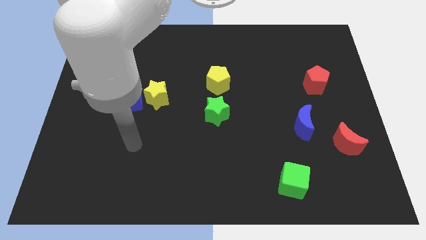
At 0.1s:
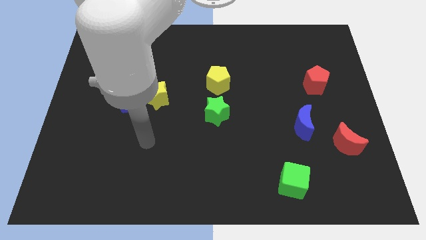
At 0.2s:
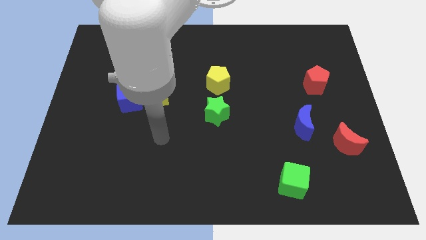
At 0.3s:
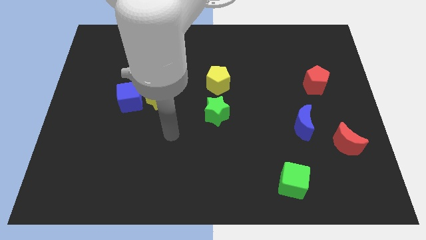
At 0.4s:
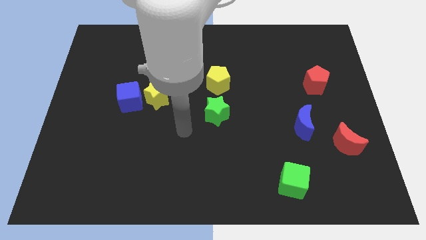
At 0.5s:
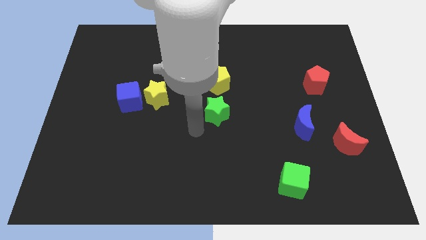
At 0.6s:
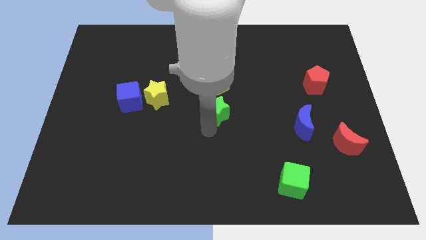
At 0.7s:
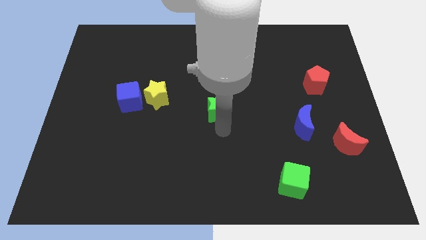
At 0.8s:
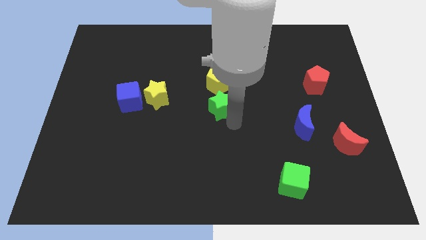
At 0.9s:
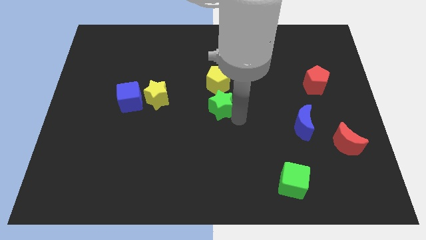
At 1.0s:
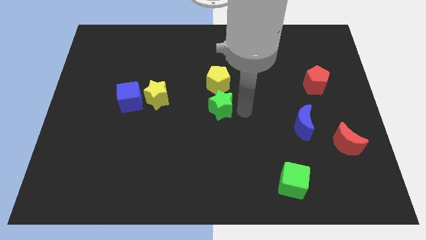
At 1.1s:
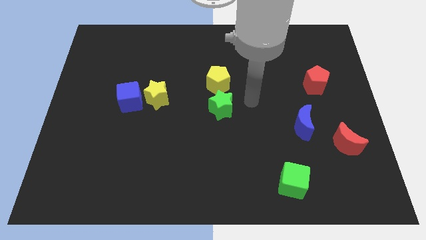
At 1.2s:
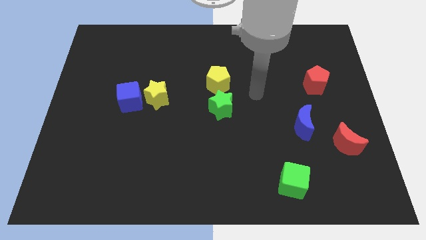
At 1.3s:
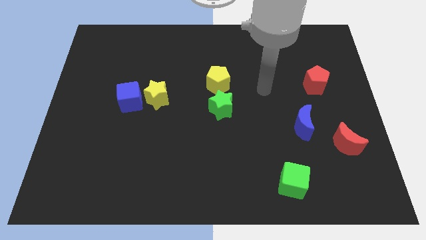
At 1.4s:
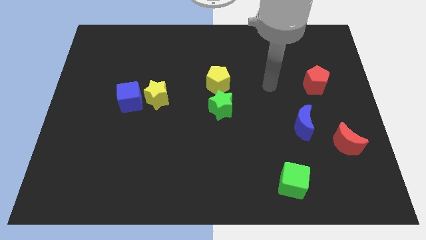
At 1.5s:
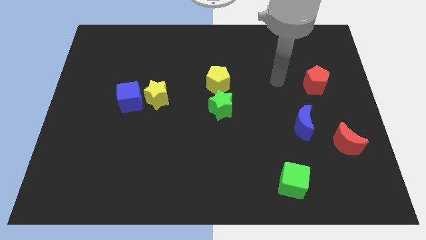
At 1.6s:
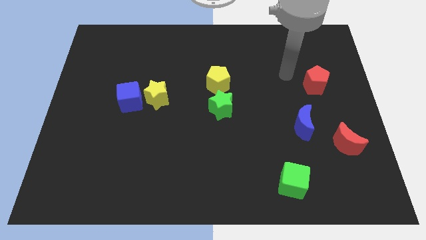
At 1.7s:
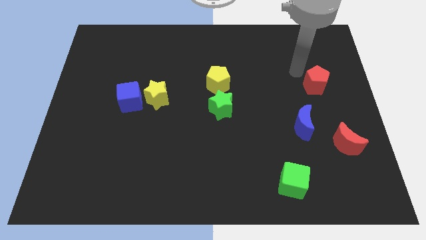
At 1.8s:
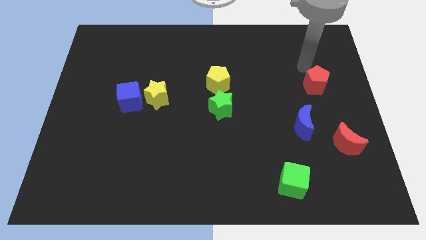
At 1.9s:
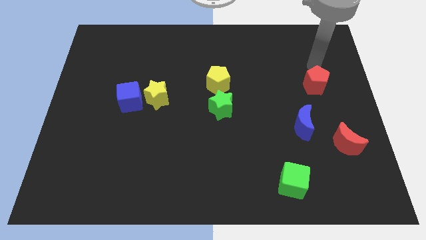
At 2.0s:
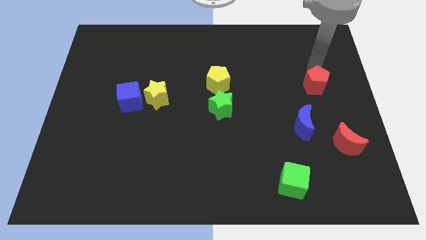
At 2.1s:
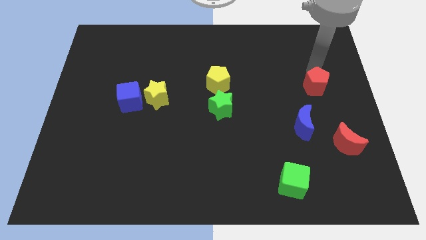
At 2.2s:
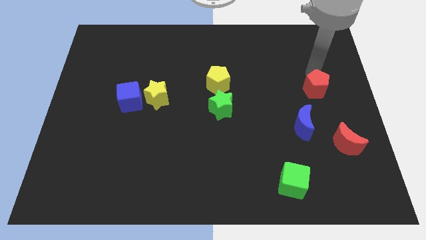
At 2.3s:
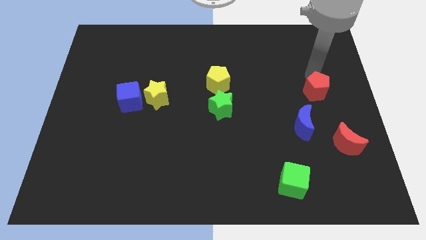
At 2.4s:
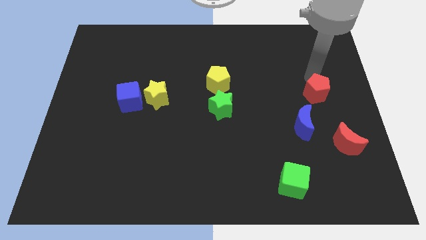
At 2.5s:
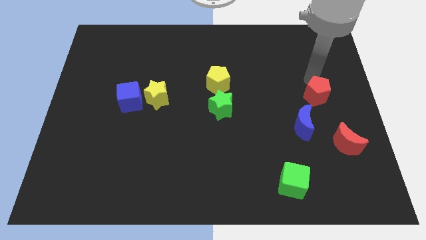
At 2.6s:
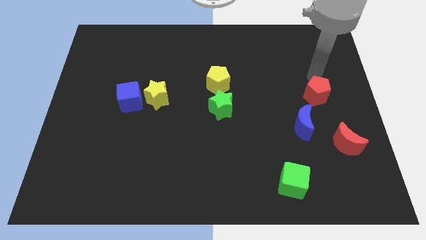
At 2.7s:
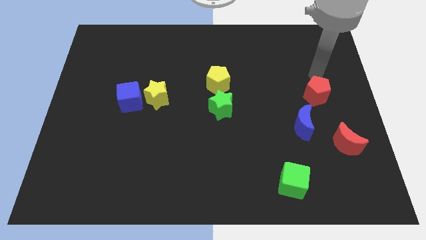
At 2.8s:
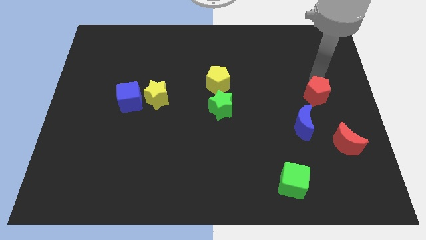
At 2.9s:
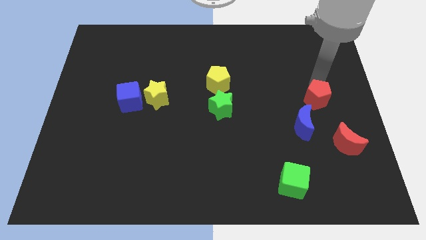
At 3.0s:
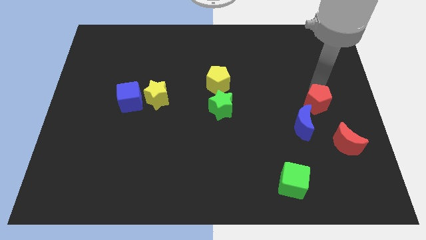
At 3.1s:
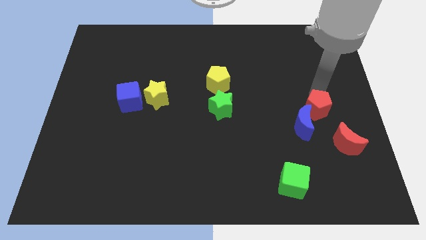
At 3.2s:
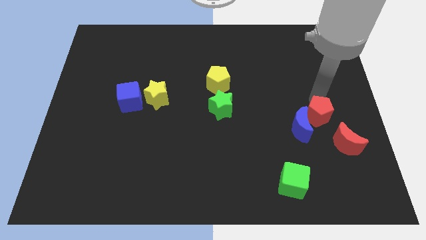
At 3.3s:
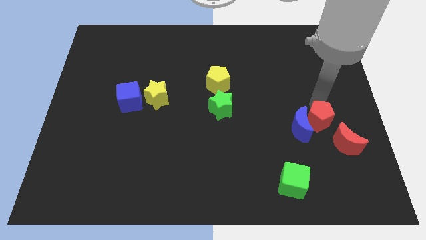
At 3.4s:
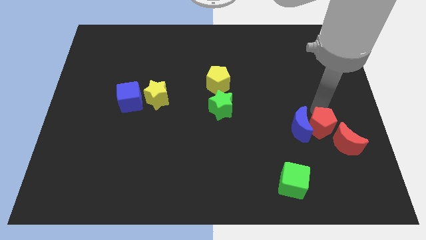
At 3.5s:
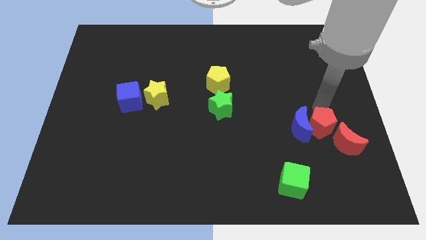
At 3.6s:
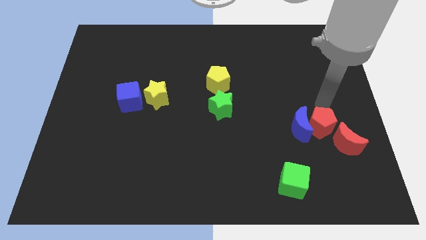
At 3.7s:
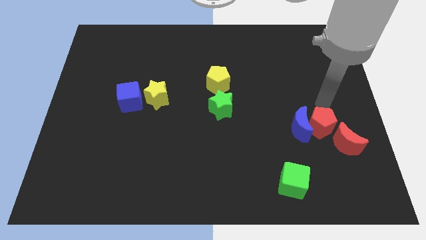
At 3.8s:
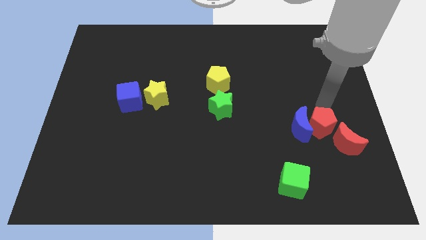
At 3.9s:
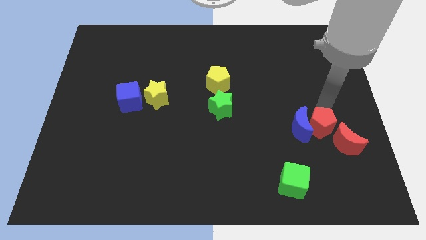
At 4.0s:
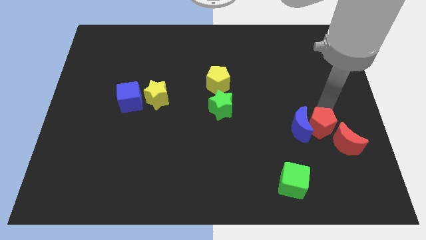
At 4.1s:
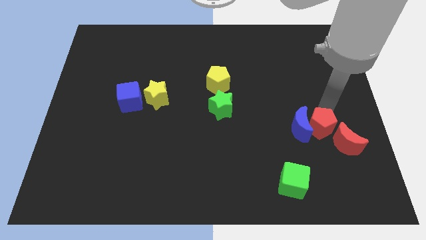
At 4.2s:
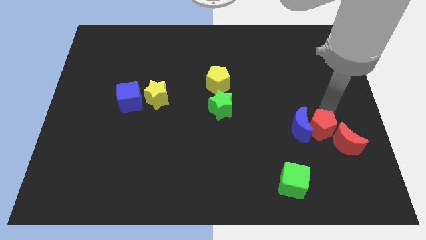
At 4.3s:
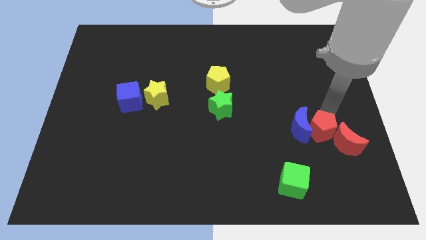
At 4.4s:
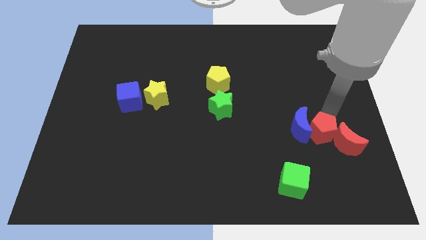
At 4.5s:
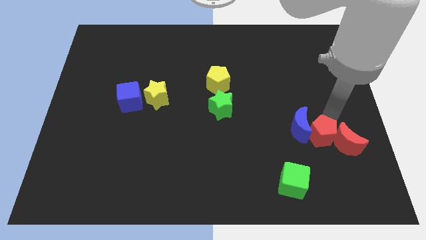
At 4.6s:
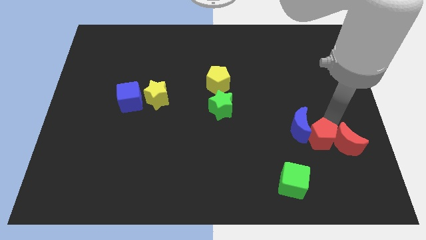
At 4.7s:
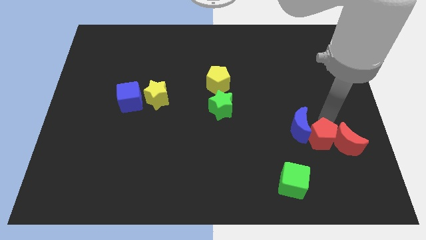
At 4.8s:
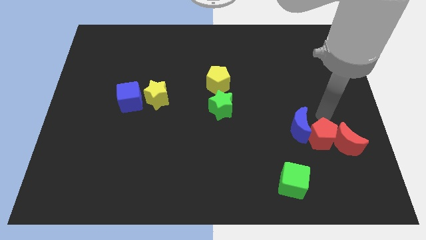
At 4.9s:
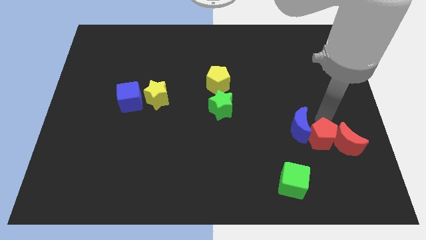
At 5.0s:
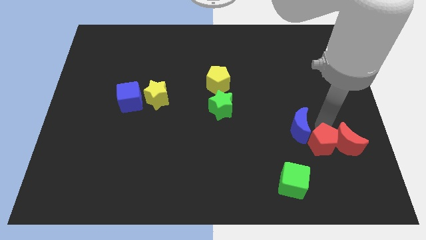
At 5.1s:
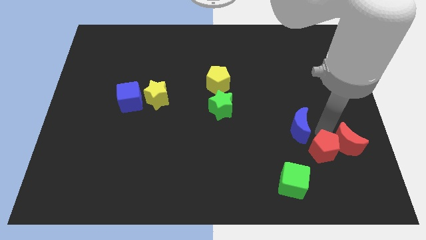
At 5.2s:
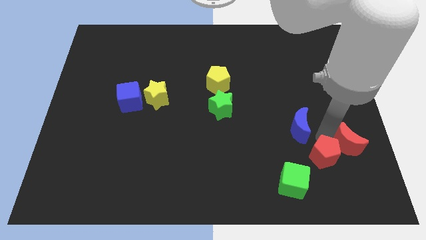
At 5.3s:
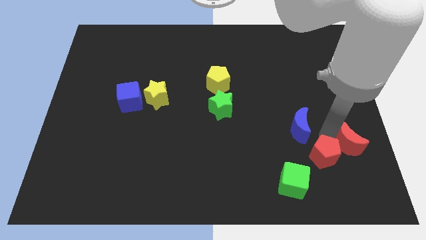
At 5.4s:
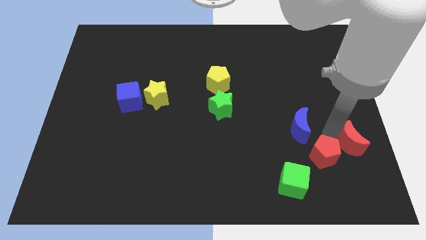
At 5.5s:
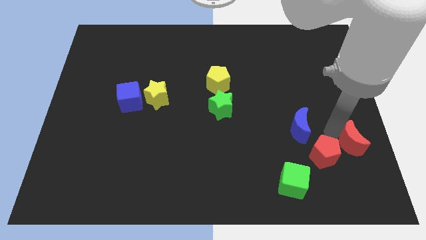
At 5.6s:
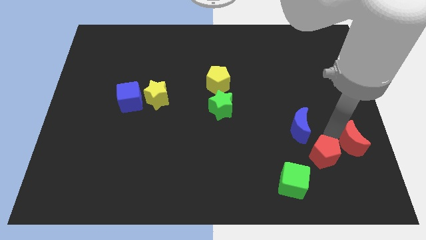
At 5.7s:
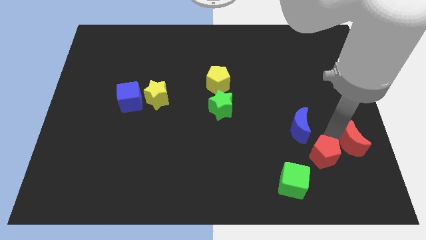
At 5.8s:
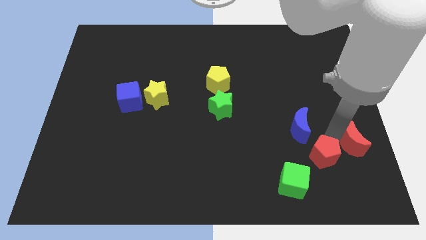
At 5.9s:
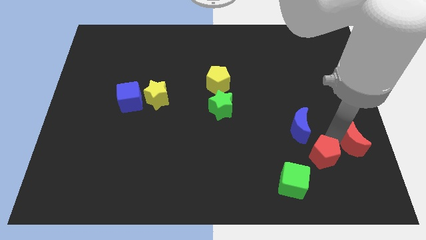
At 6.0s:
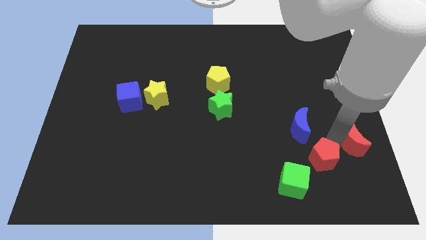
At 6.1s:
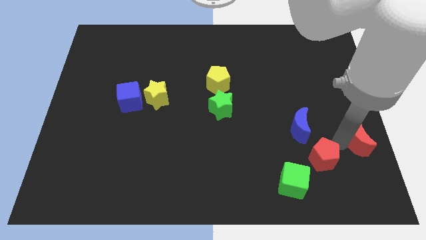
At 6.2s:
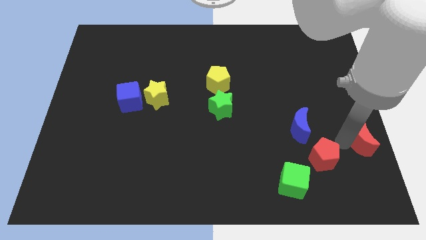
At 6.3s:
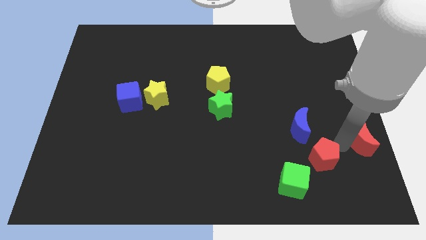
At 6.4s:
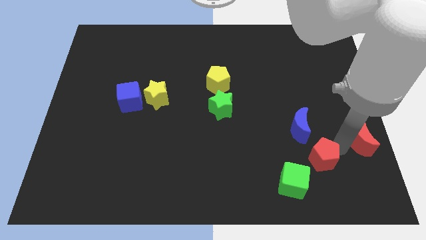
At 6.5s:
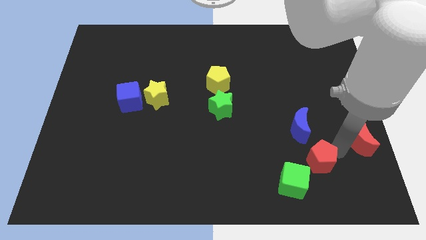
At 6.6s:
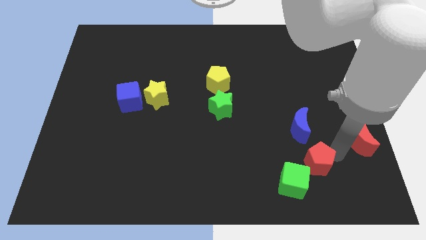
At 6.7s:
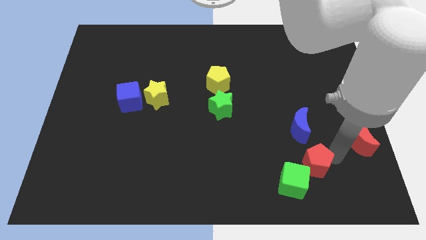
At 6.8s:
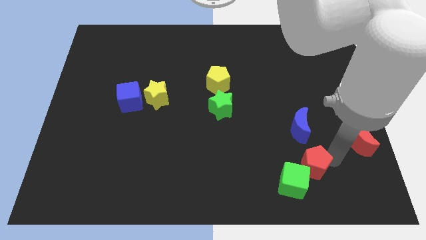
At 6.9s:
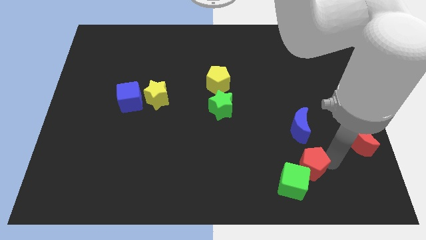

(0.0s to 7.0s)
push the red pentagon to the green cube
